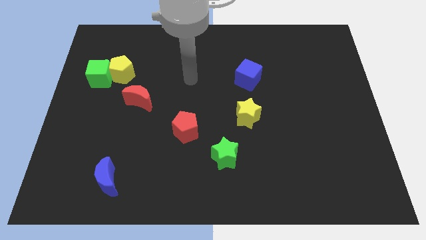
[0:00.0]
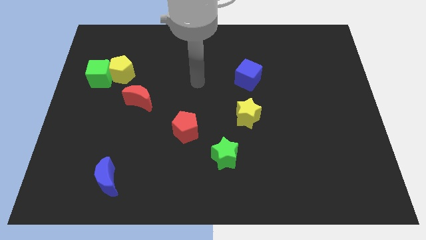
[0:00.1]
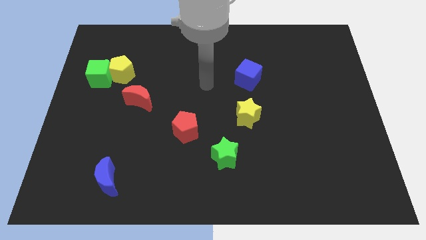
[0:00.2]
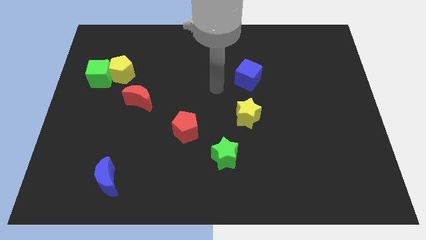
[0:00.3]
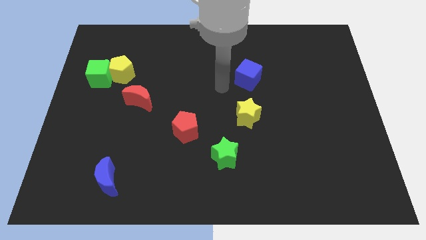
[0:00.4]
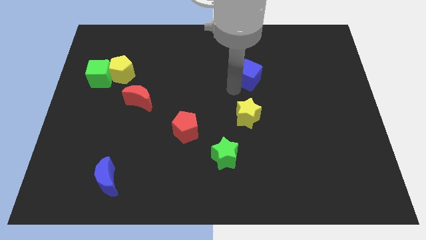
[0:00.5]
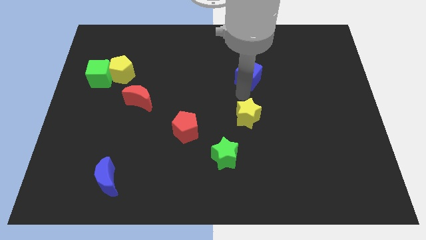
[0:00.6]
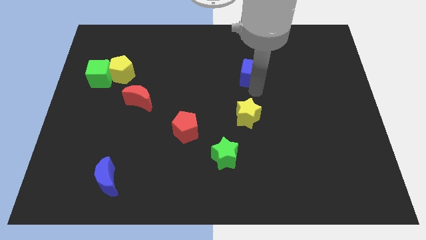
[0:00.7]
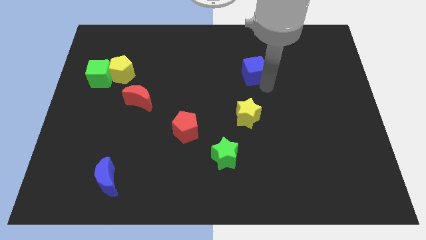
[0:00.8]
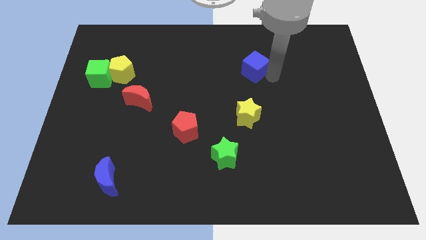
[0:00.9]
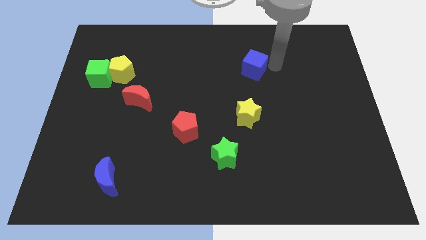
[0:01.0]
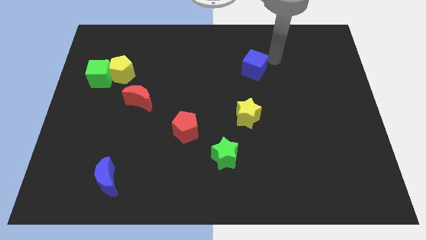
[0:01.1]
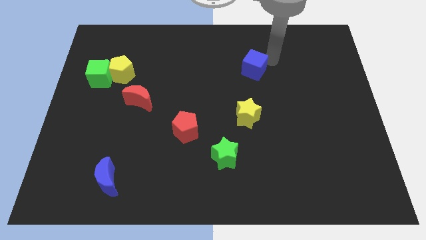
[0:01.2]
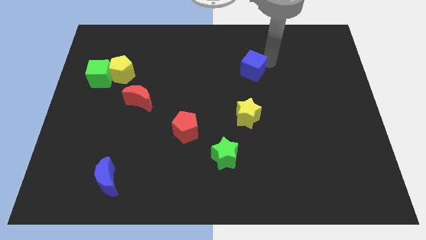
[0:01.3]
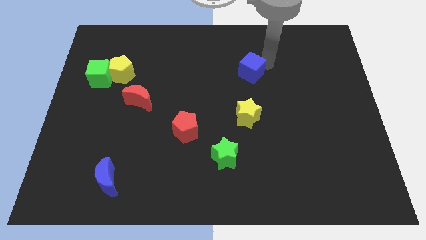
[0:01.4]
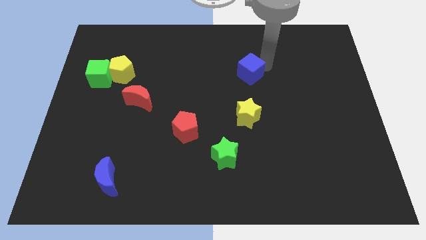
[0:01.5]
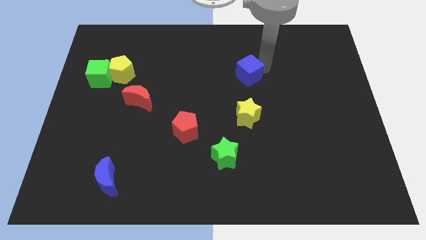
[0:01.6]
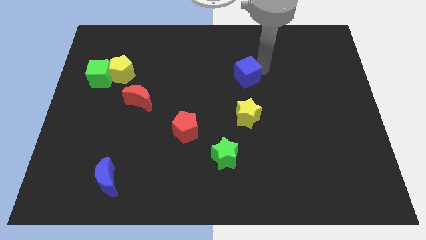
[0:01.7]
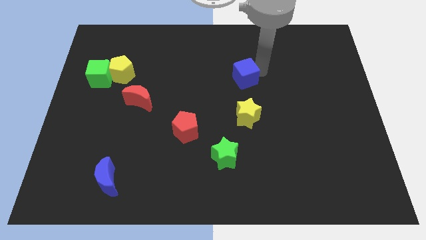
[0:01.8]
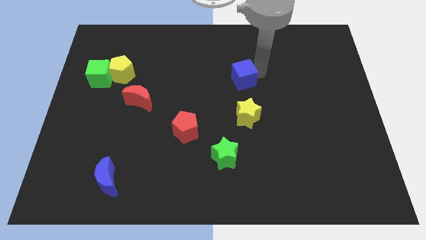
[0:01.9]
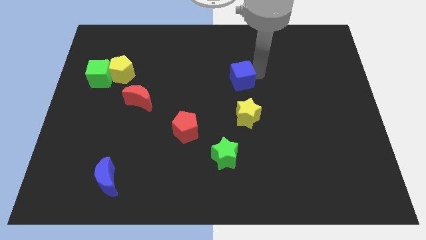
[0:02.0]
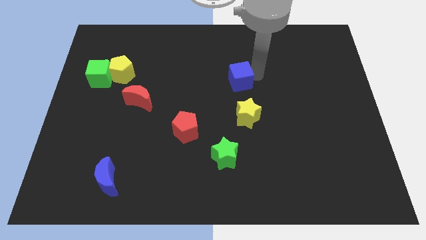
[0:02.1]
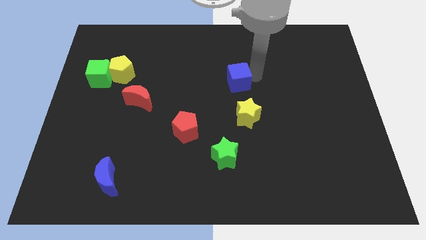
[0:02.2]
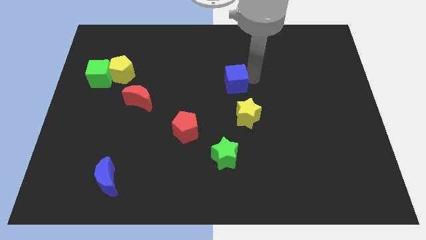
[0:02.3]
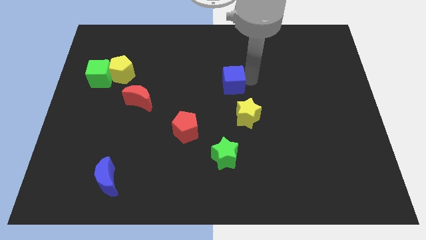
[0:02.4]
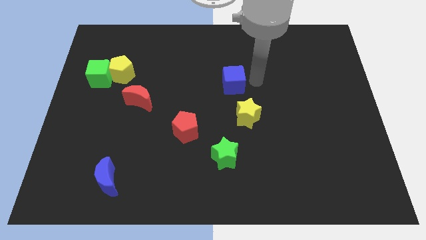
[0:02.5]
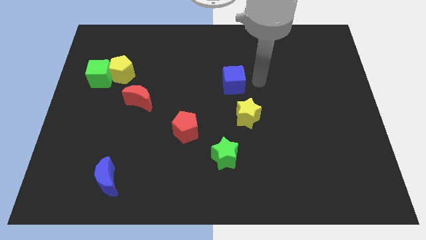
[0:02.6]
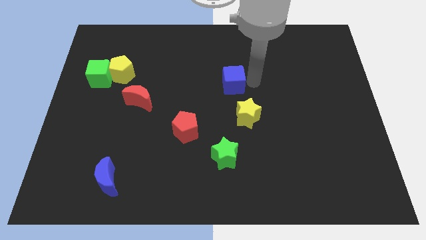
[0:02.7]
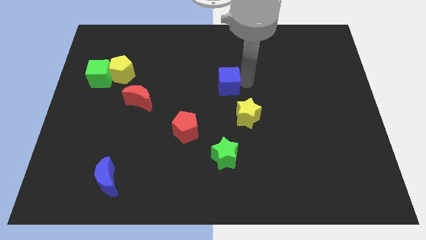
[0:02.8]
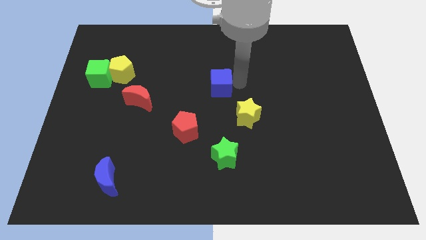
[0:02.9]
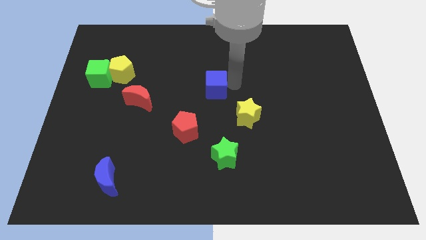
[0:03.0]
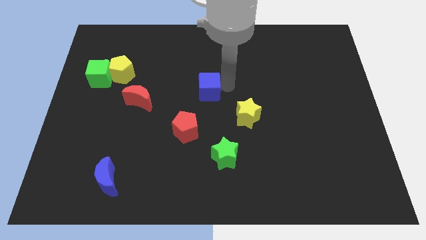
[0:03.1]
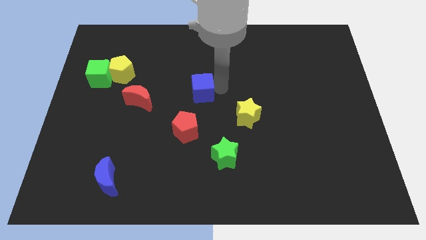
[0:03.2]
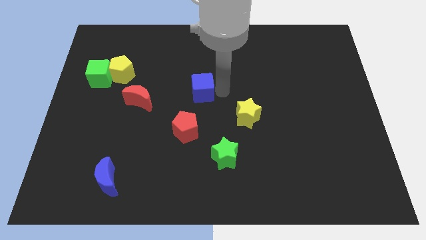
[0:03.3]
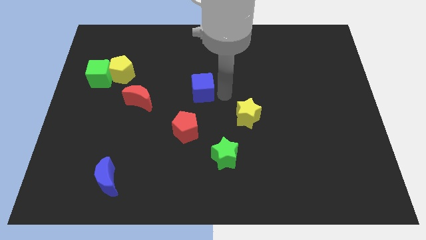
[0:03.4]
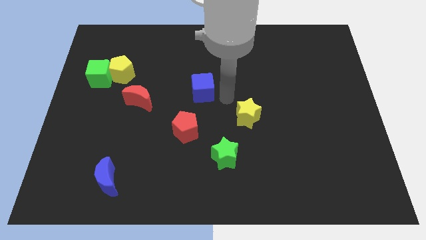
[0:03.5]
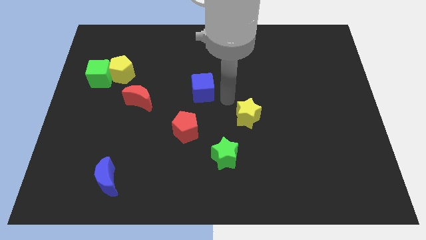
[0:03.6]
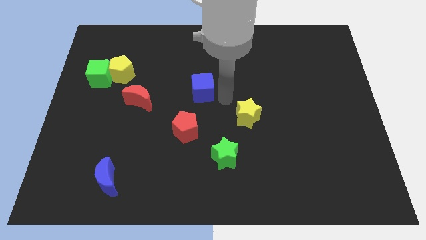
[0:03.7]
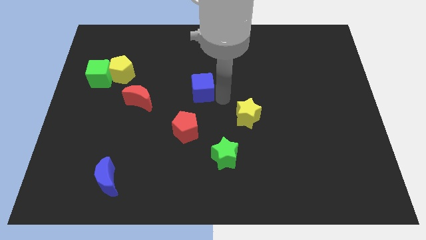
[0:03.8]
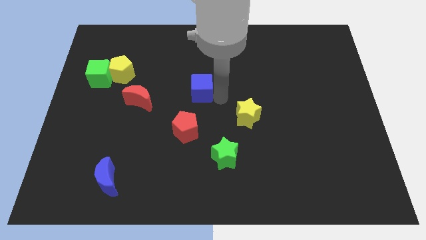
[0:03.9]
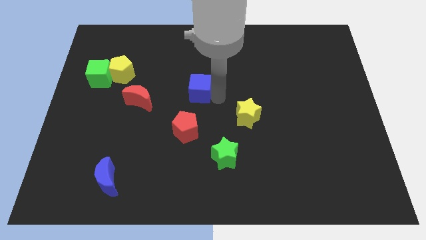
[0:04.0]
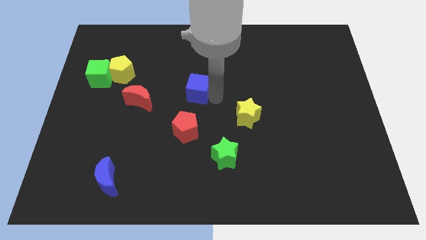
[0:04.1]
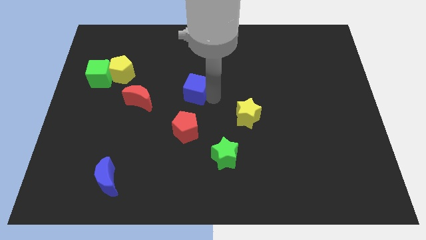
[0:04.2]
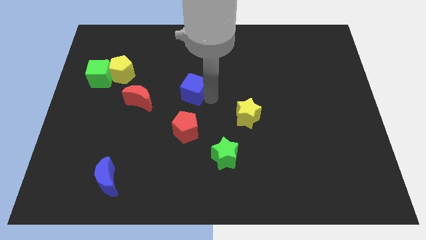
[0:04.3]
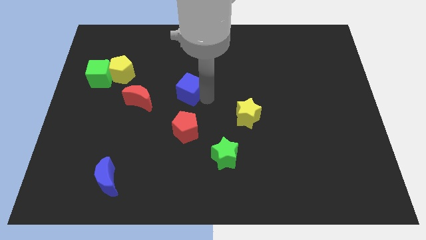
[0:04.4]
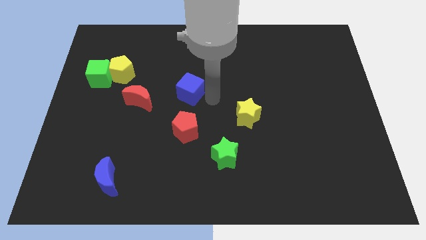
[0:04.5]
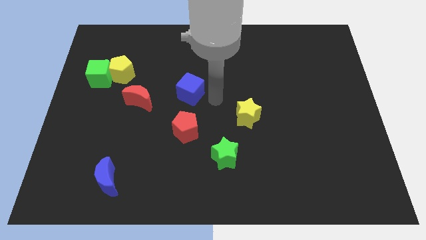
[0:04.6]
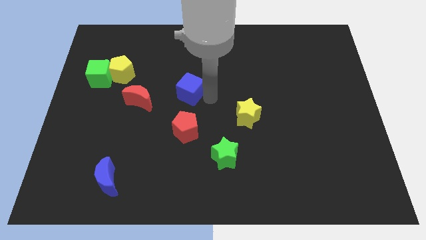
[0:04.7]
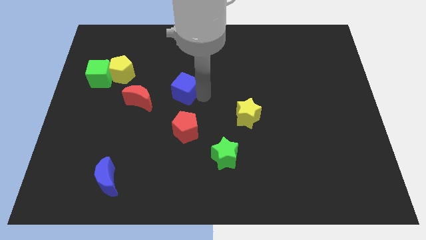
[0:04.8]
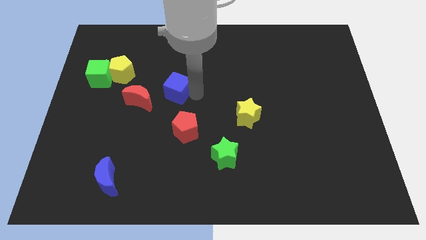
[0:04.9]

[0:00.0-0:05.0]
put the blue cube to the top right side of the red moon

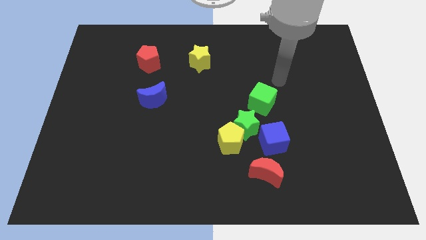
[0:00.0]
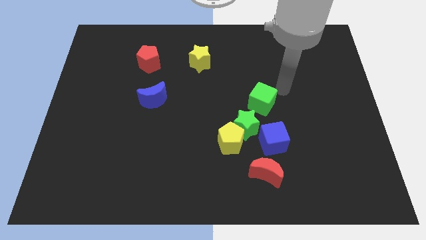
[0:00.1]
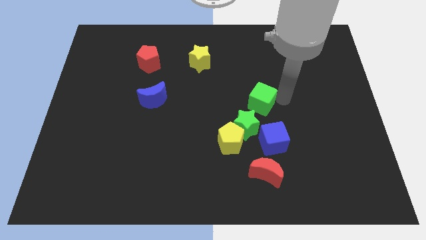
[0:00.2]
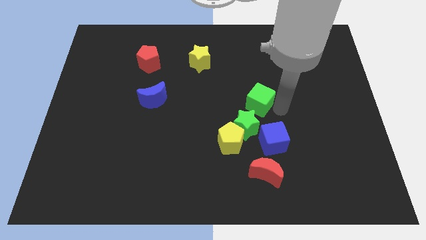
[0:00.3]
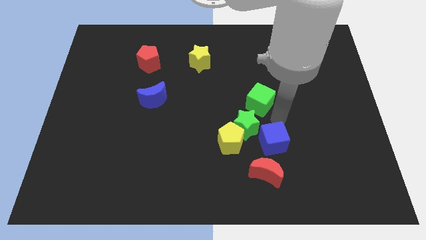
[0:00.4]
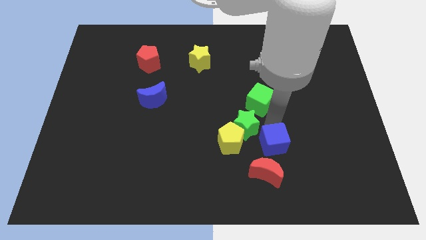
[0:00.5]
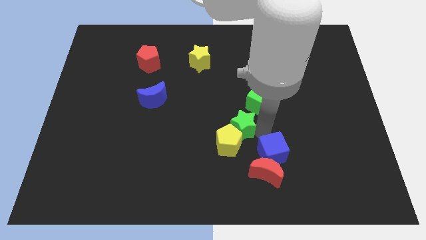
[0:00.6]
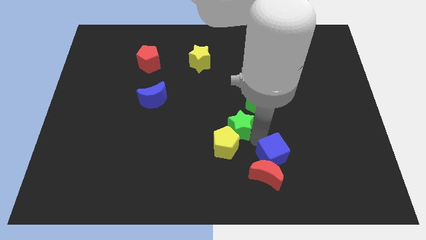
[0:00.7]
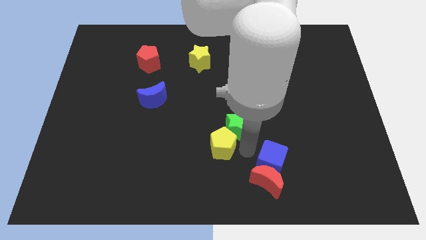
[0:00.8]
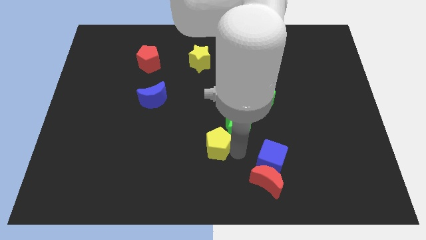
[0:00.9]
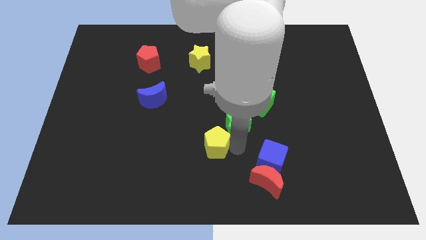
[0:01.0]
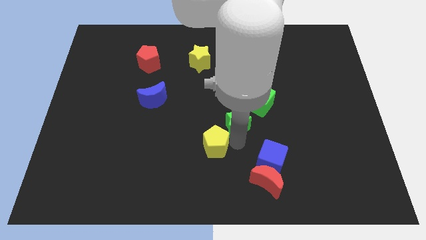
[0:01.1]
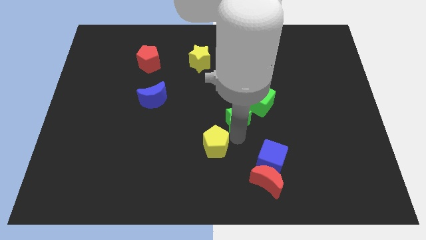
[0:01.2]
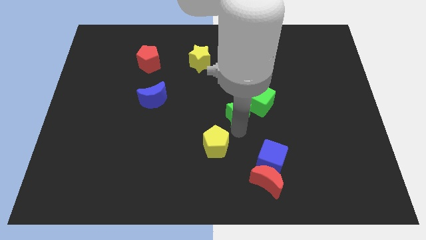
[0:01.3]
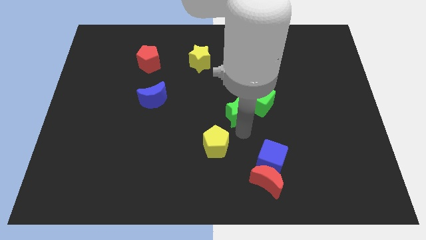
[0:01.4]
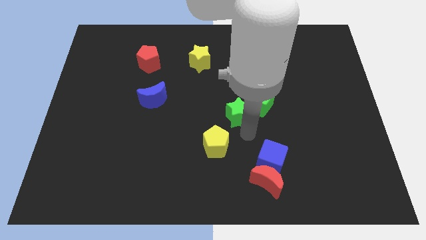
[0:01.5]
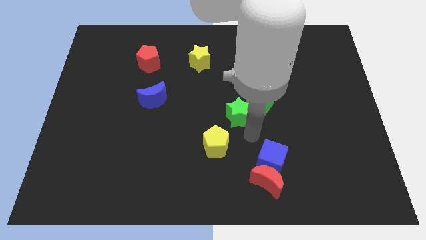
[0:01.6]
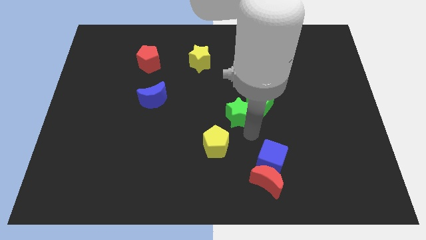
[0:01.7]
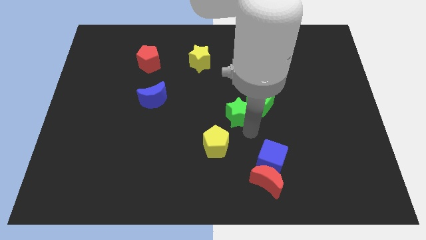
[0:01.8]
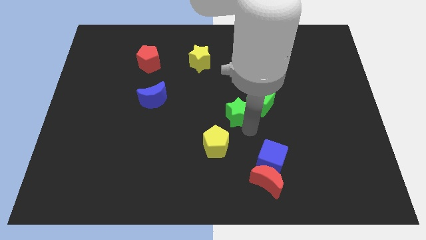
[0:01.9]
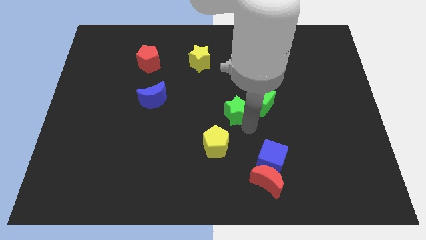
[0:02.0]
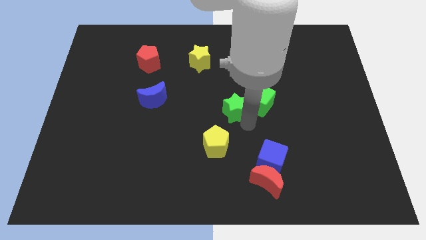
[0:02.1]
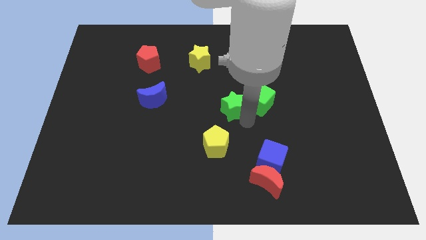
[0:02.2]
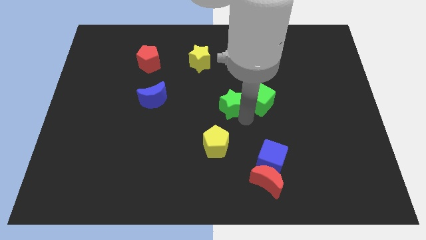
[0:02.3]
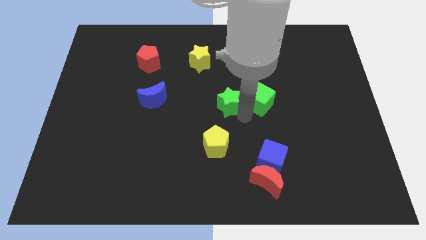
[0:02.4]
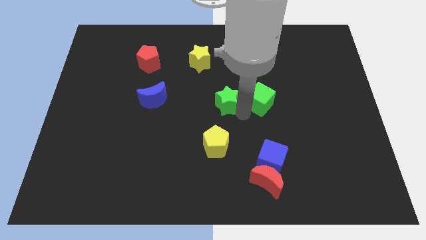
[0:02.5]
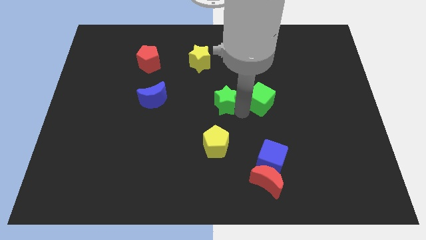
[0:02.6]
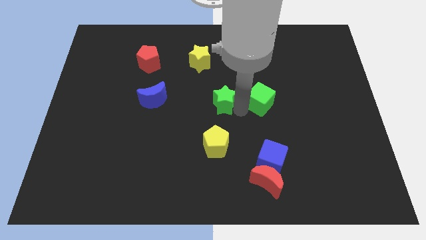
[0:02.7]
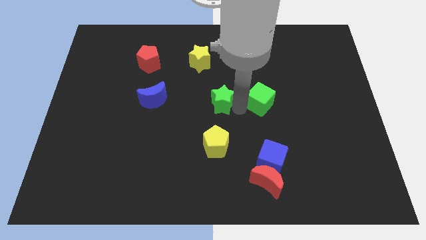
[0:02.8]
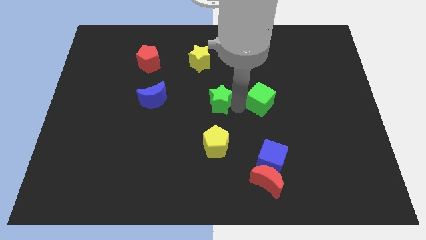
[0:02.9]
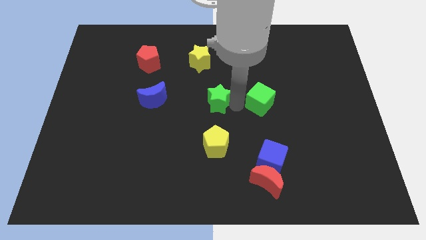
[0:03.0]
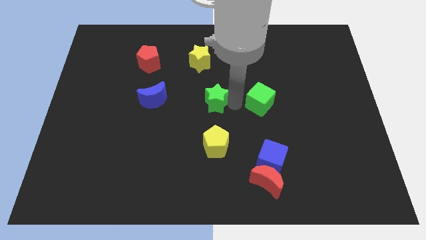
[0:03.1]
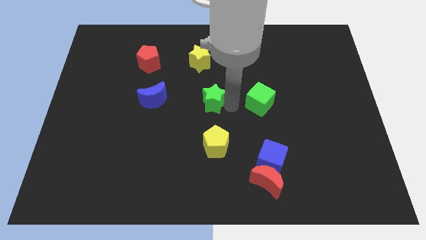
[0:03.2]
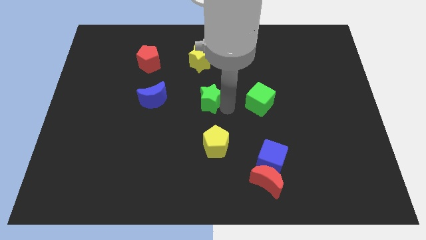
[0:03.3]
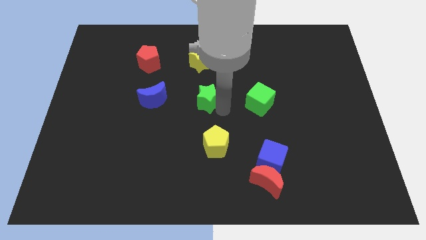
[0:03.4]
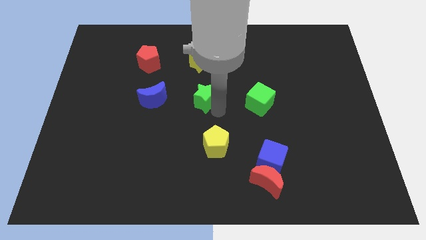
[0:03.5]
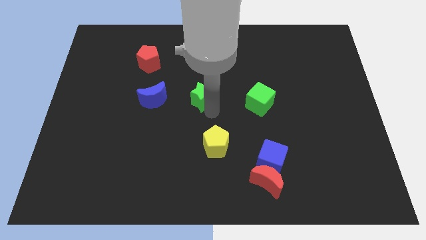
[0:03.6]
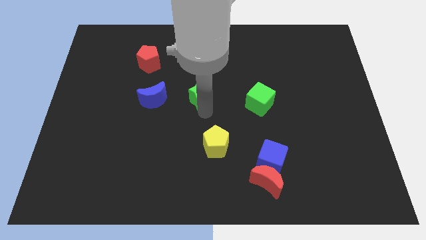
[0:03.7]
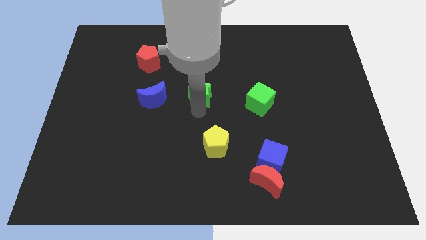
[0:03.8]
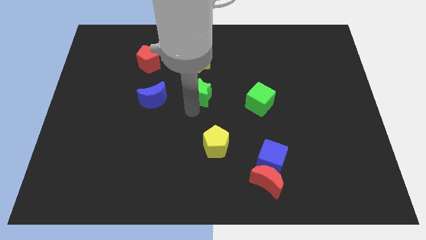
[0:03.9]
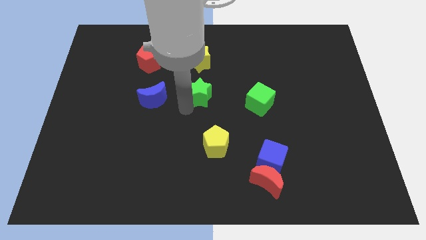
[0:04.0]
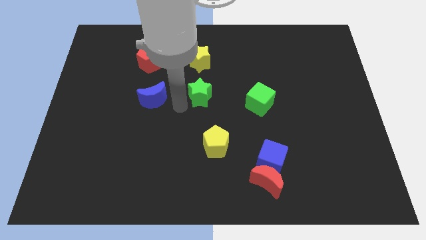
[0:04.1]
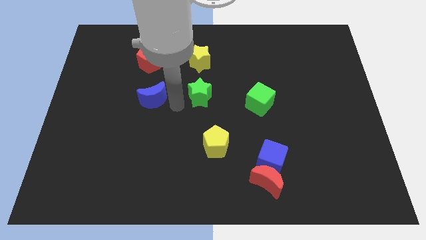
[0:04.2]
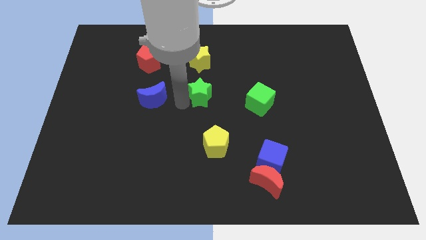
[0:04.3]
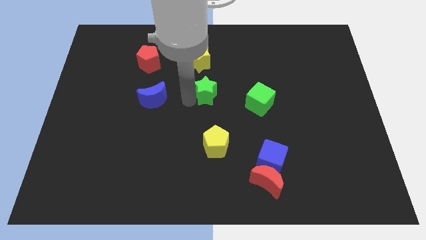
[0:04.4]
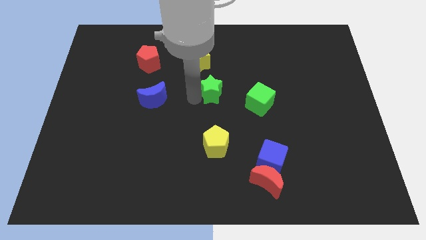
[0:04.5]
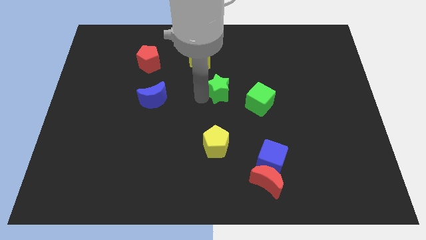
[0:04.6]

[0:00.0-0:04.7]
put the green star diagonally down and to the right of the yellow star
